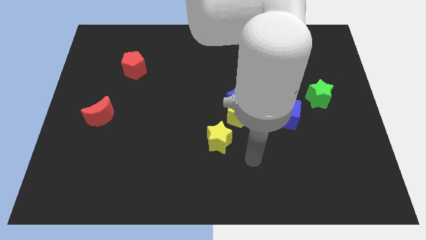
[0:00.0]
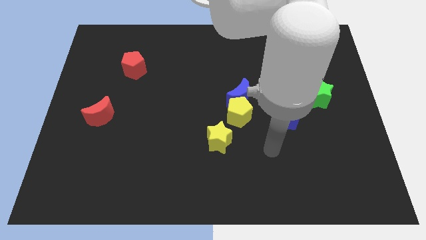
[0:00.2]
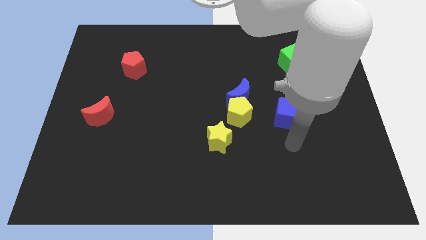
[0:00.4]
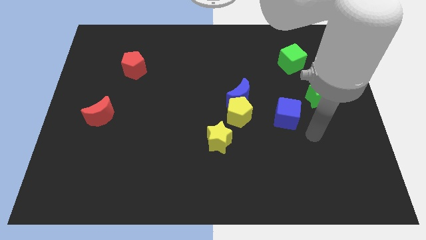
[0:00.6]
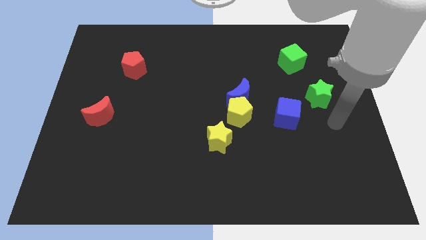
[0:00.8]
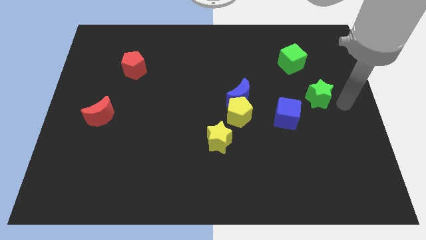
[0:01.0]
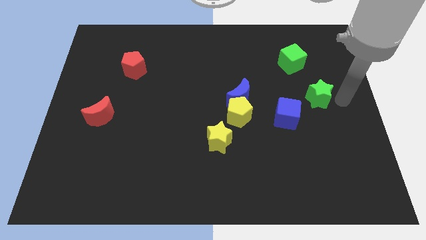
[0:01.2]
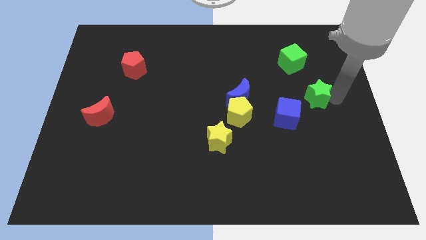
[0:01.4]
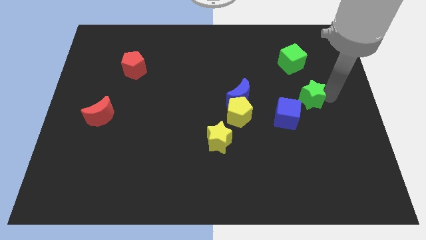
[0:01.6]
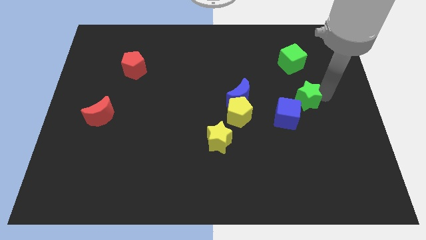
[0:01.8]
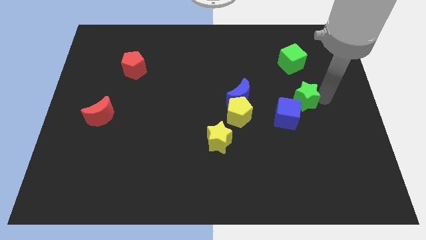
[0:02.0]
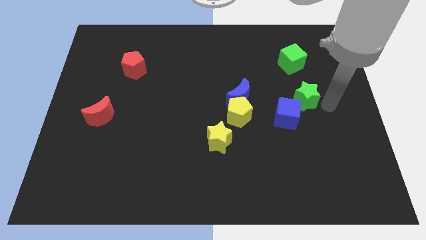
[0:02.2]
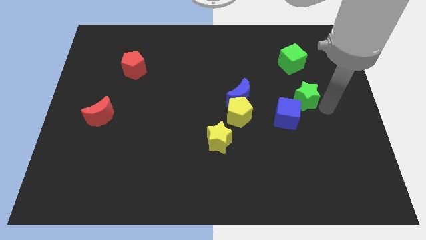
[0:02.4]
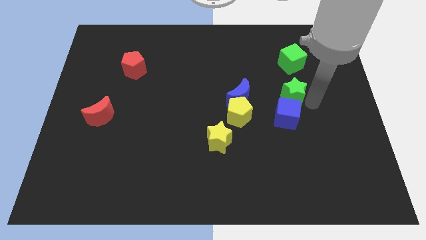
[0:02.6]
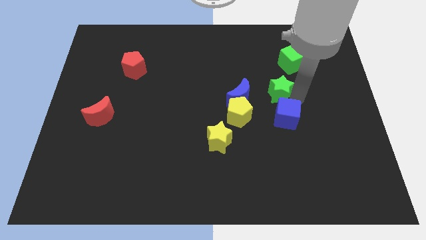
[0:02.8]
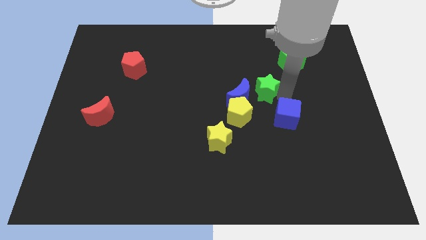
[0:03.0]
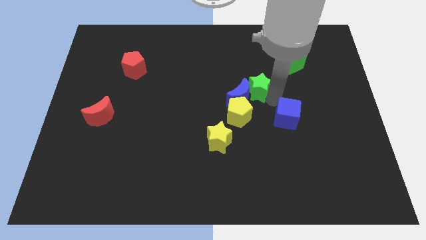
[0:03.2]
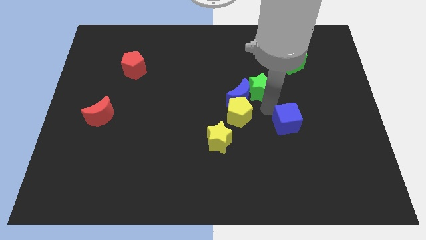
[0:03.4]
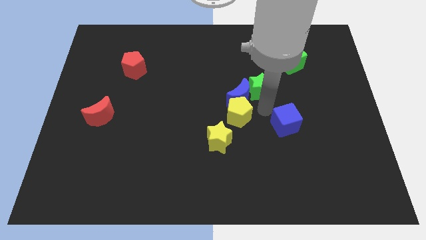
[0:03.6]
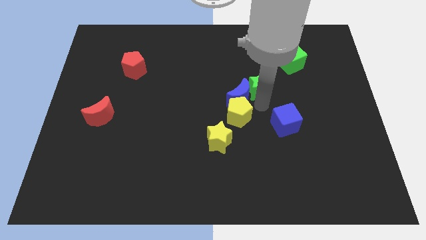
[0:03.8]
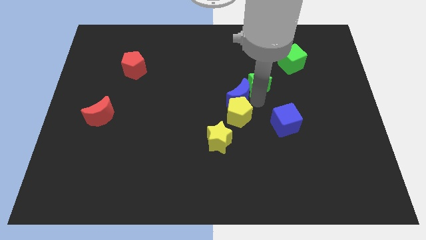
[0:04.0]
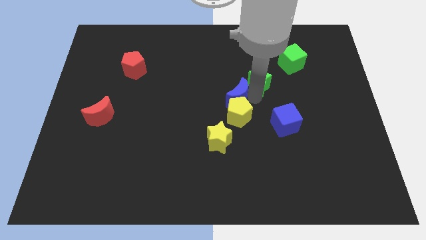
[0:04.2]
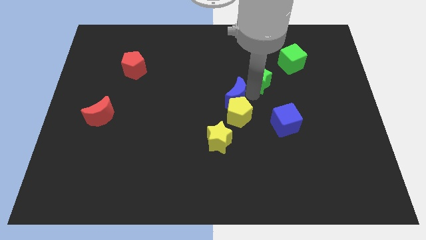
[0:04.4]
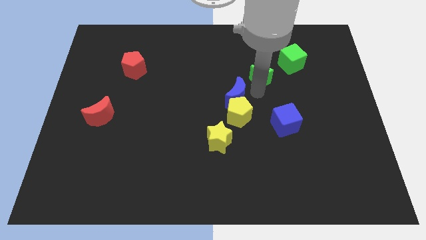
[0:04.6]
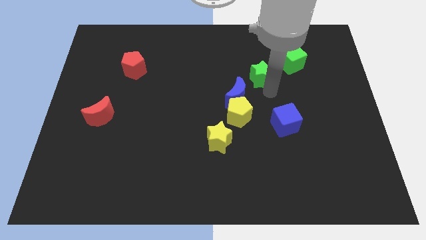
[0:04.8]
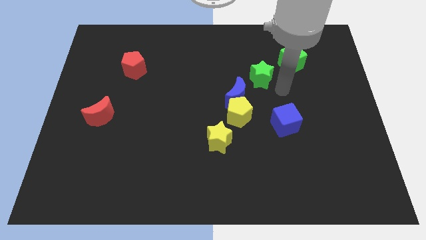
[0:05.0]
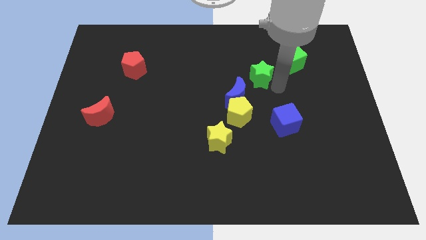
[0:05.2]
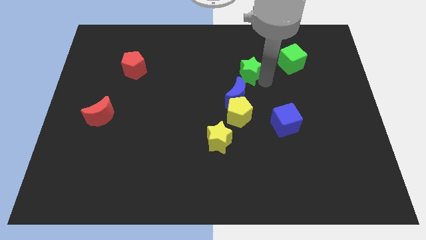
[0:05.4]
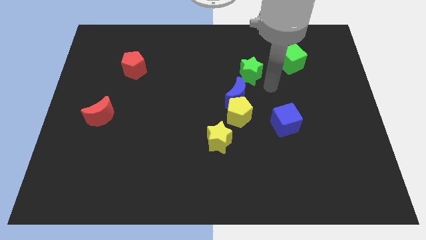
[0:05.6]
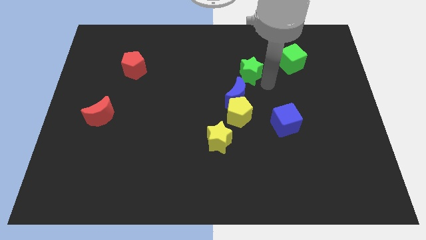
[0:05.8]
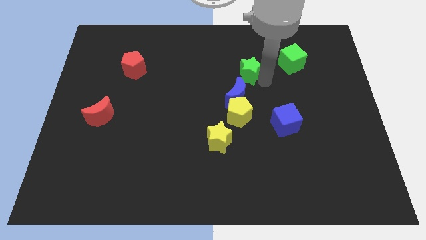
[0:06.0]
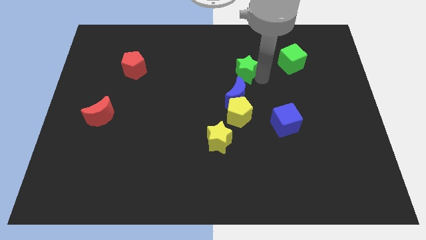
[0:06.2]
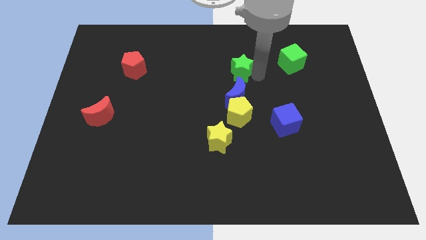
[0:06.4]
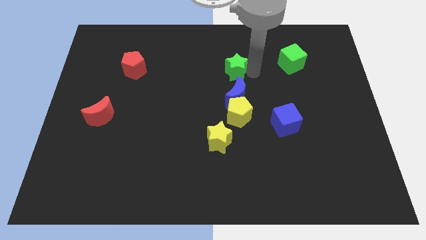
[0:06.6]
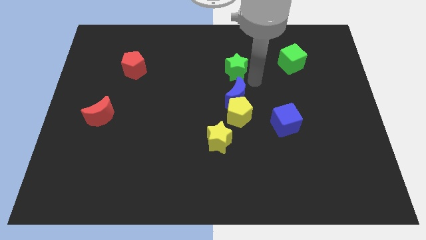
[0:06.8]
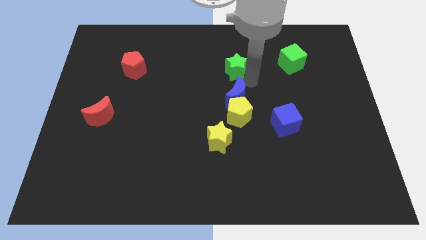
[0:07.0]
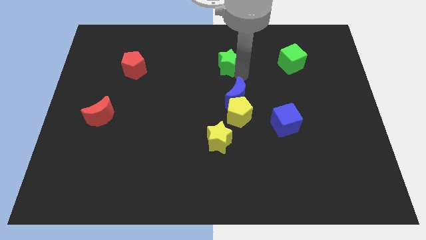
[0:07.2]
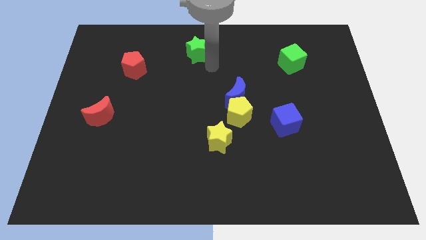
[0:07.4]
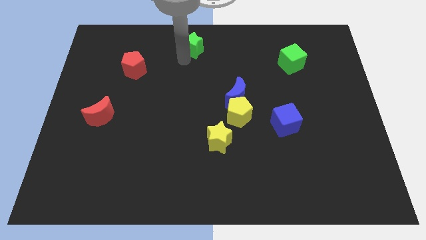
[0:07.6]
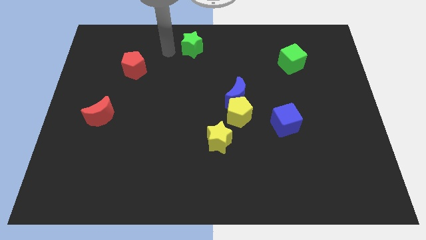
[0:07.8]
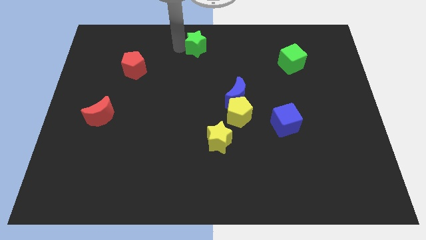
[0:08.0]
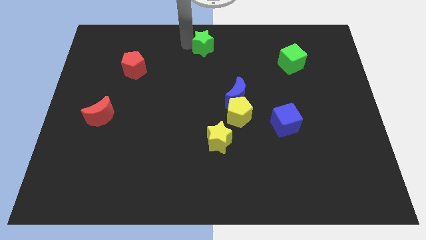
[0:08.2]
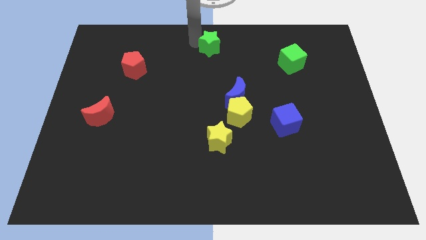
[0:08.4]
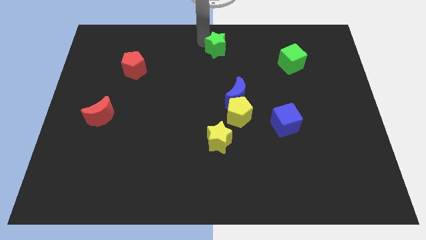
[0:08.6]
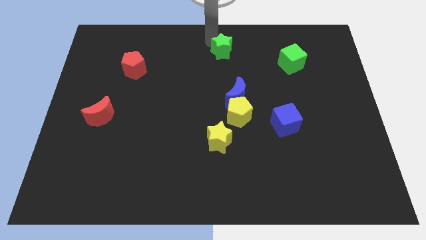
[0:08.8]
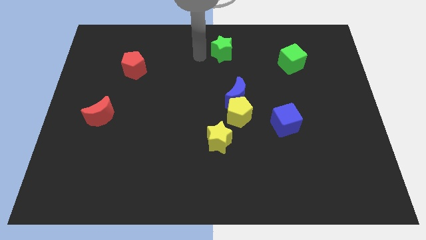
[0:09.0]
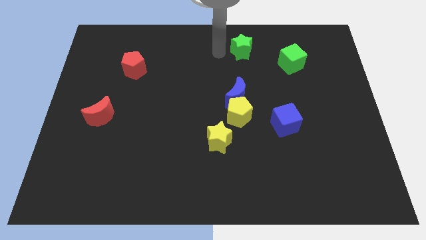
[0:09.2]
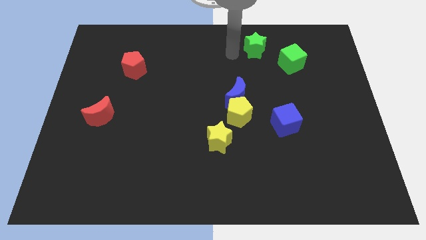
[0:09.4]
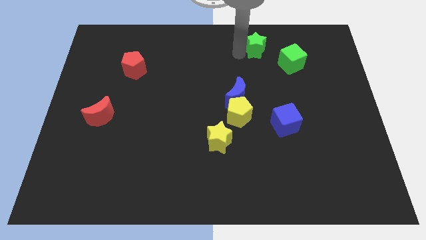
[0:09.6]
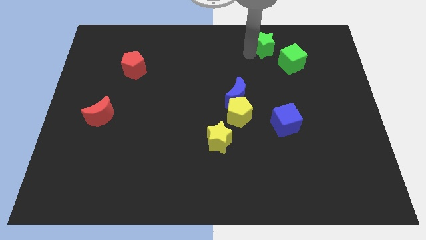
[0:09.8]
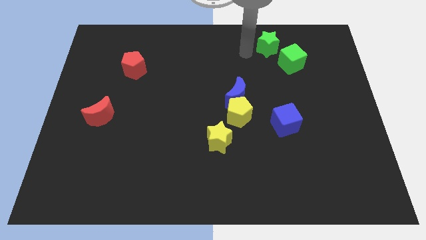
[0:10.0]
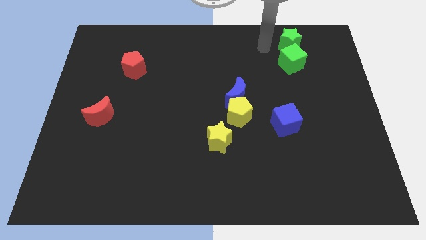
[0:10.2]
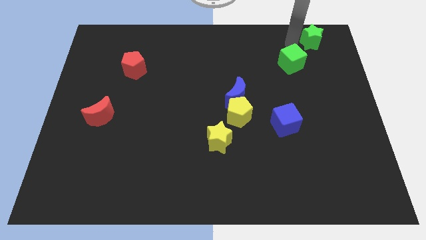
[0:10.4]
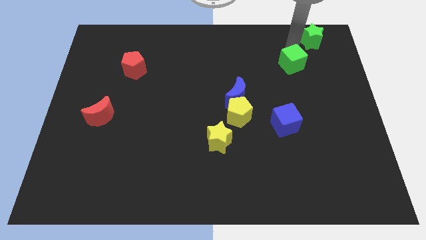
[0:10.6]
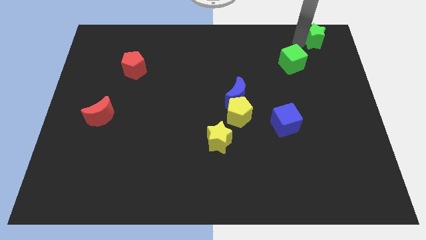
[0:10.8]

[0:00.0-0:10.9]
slide the green star to the top right of the board
